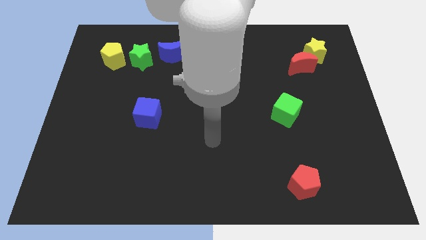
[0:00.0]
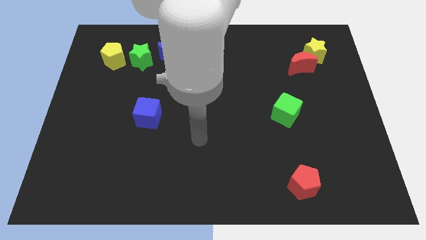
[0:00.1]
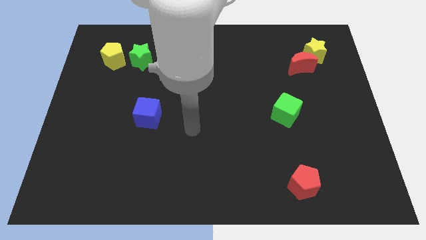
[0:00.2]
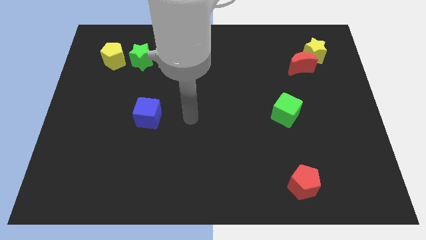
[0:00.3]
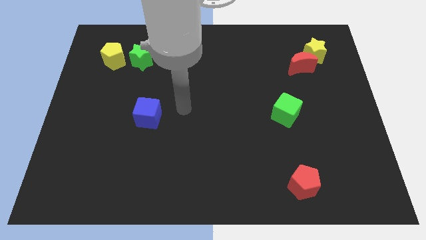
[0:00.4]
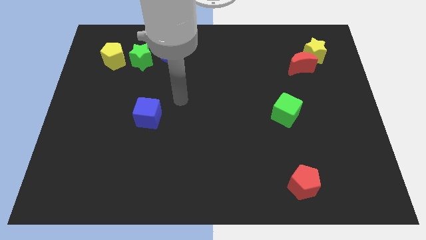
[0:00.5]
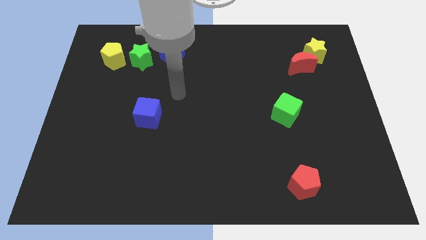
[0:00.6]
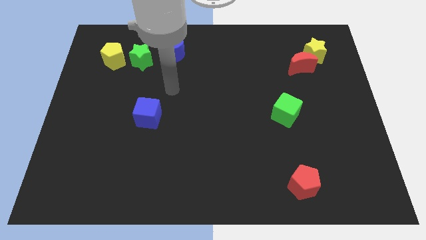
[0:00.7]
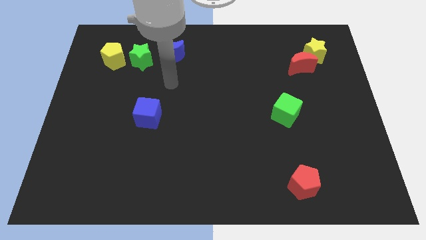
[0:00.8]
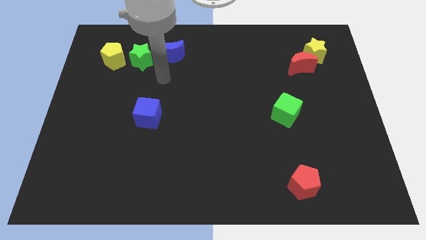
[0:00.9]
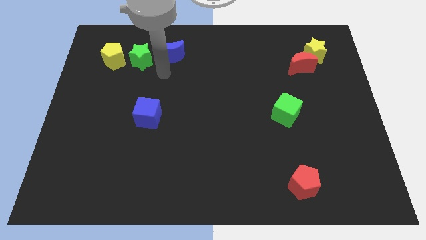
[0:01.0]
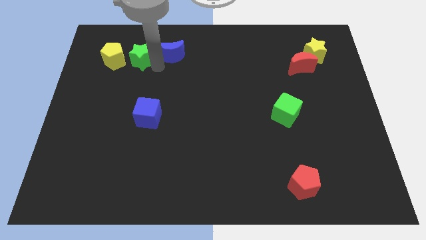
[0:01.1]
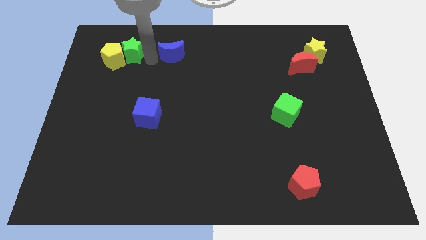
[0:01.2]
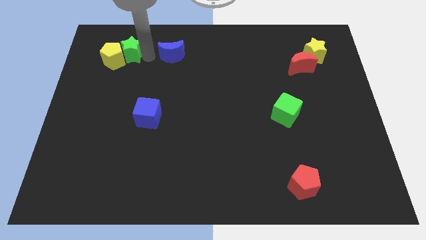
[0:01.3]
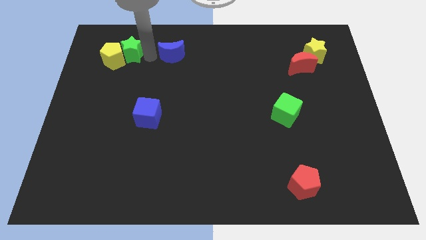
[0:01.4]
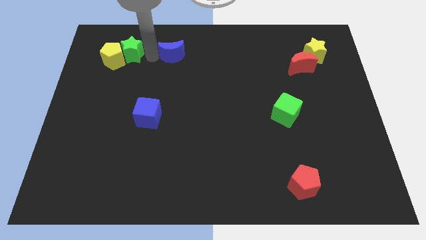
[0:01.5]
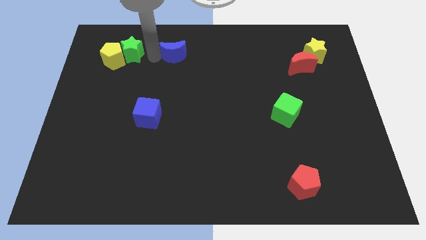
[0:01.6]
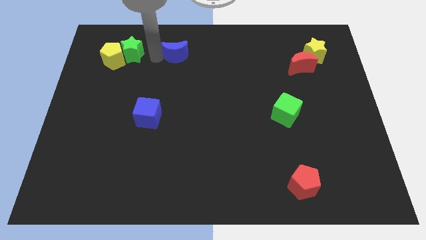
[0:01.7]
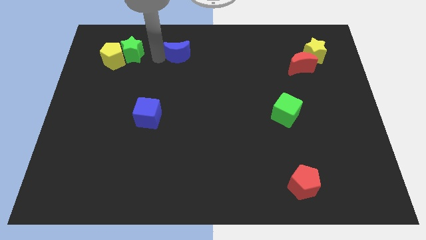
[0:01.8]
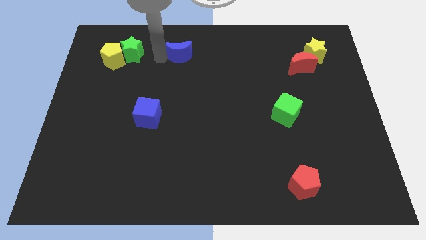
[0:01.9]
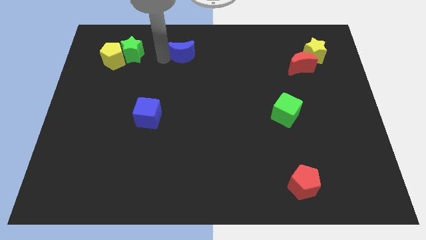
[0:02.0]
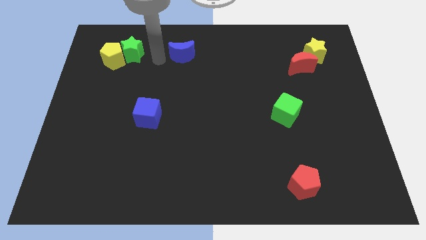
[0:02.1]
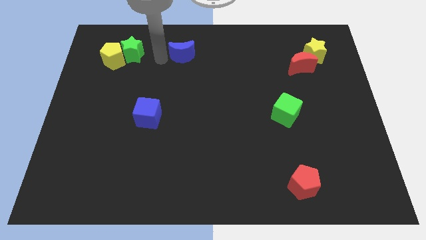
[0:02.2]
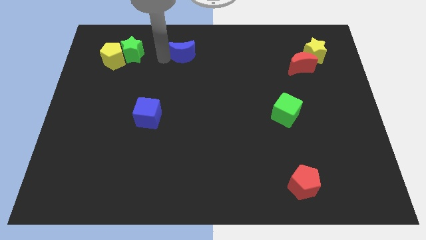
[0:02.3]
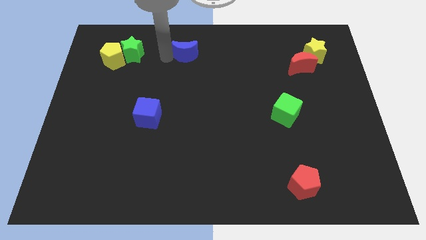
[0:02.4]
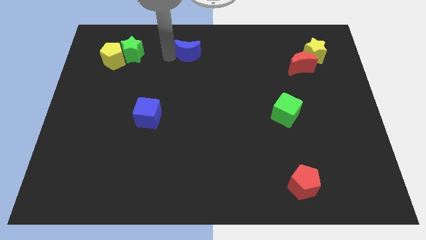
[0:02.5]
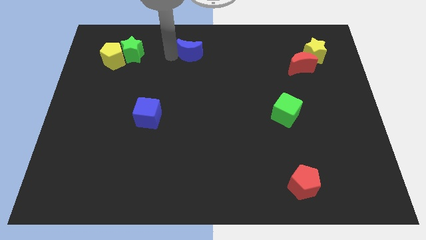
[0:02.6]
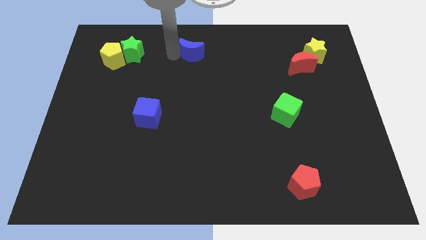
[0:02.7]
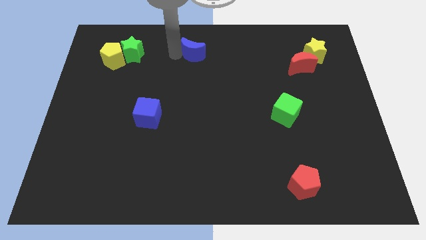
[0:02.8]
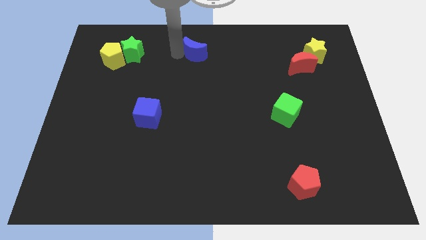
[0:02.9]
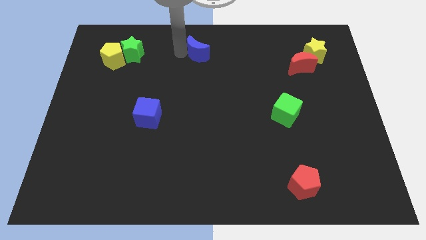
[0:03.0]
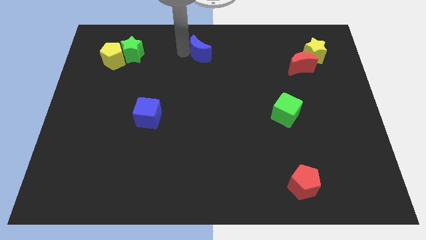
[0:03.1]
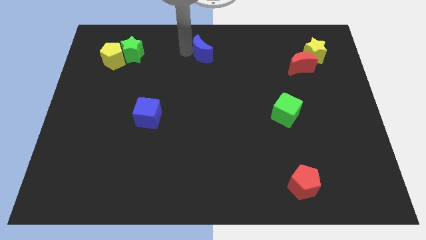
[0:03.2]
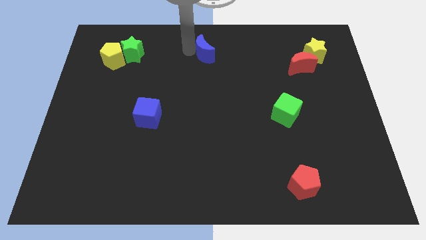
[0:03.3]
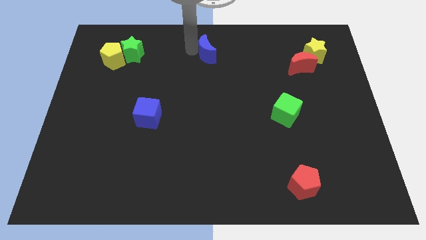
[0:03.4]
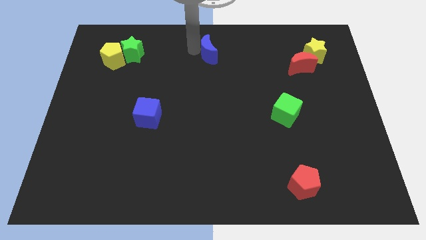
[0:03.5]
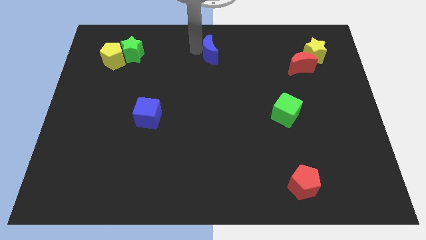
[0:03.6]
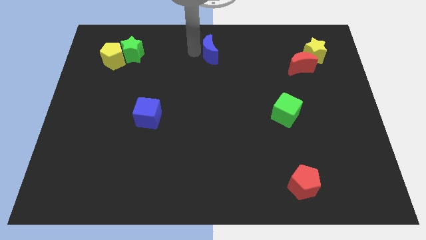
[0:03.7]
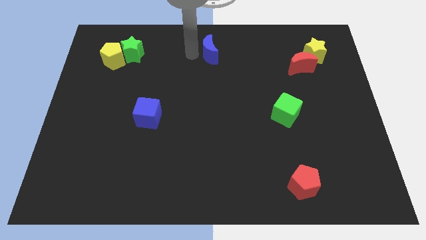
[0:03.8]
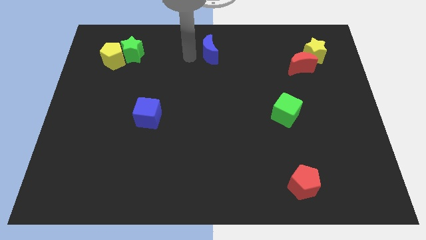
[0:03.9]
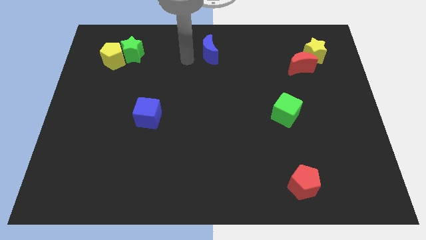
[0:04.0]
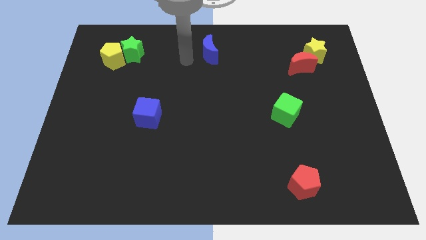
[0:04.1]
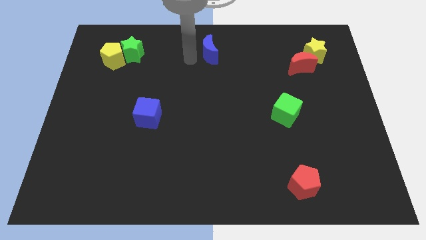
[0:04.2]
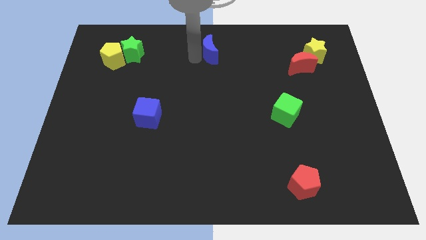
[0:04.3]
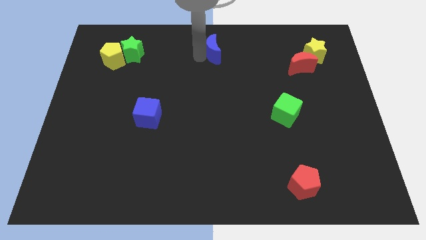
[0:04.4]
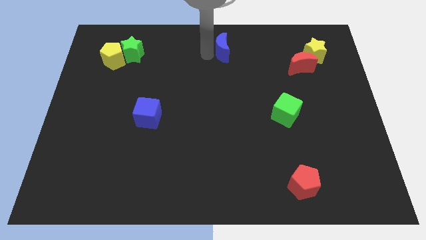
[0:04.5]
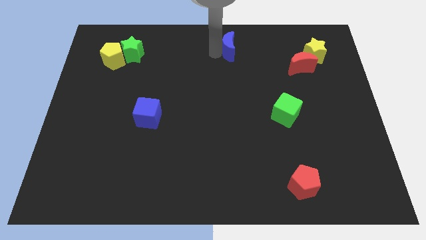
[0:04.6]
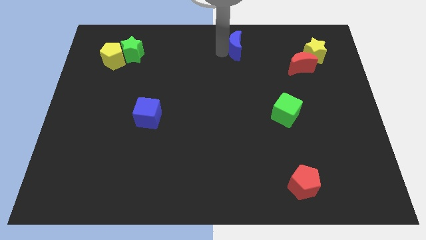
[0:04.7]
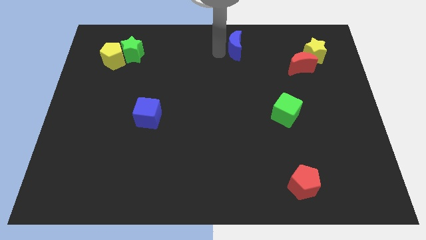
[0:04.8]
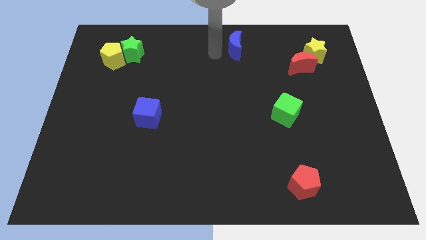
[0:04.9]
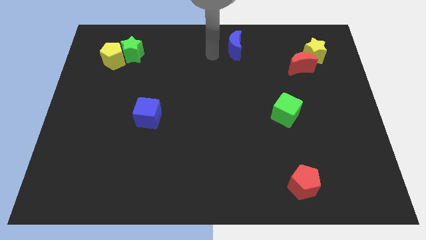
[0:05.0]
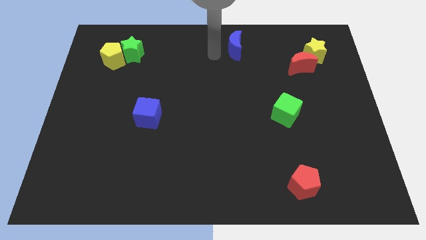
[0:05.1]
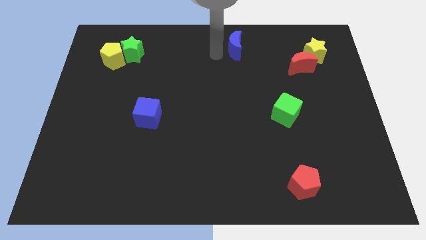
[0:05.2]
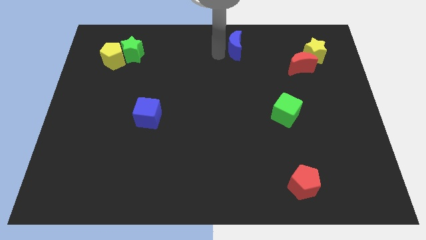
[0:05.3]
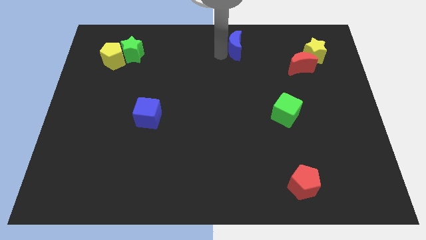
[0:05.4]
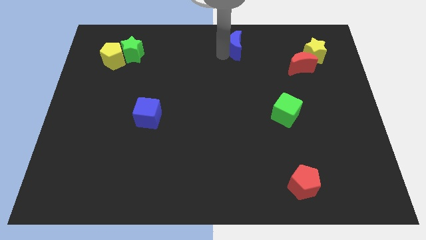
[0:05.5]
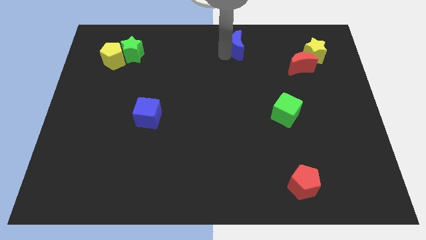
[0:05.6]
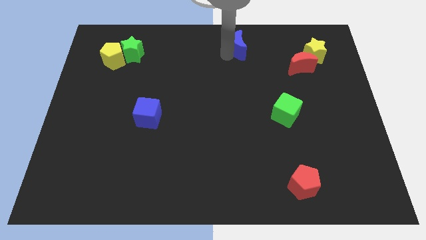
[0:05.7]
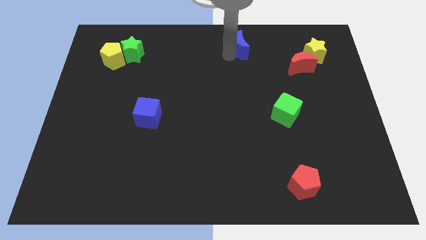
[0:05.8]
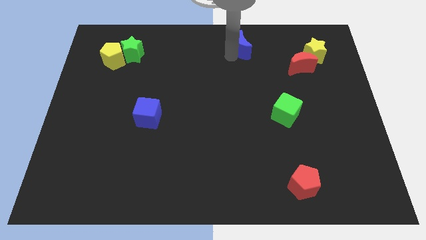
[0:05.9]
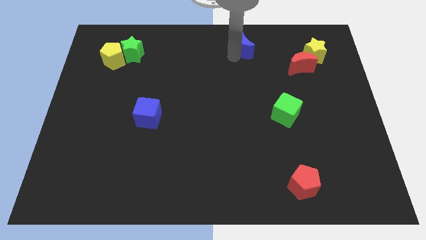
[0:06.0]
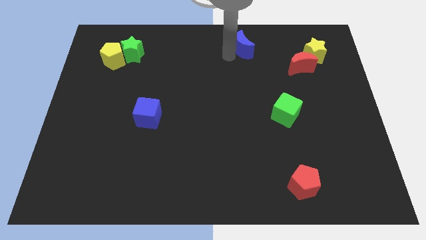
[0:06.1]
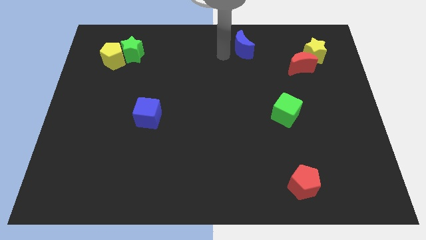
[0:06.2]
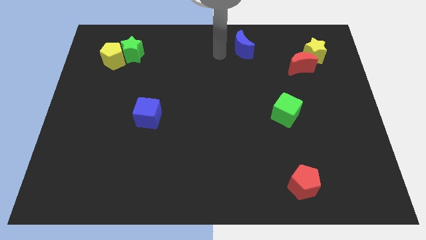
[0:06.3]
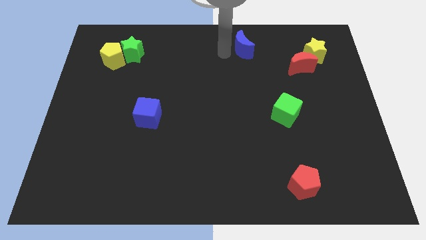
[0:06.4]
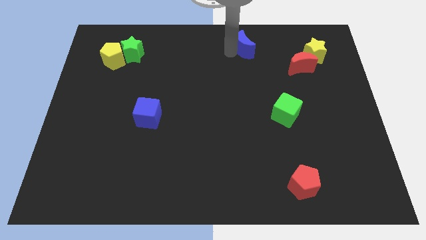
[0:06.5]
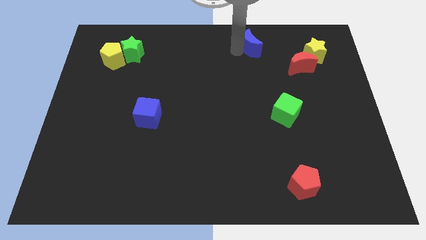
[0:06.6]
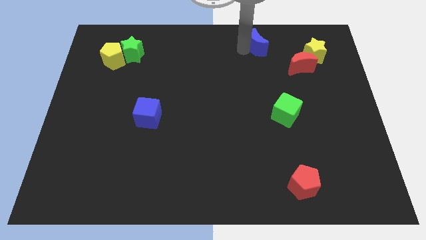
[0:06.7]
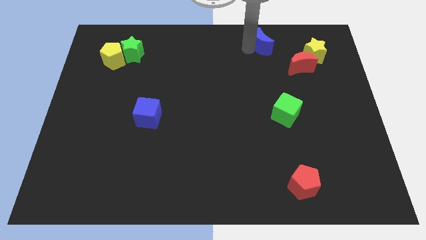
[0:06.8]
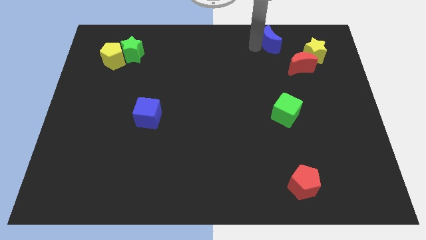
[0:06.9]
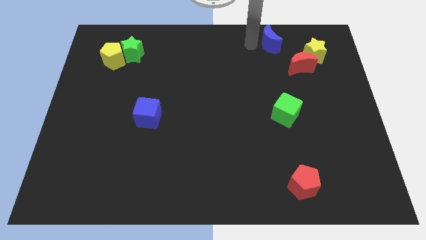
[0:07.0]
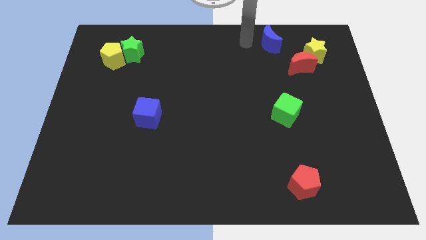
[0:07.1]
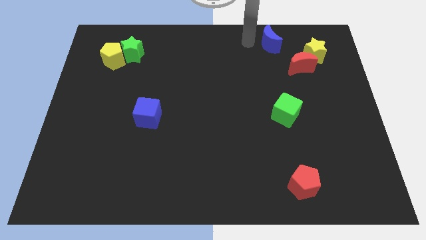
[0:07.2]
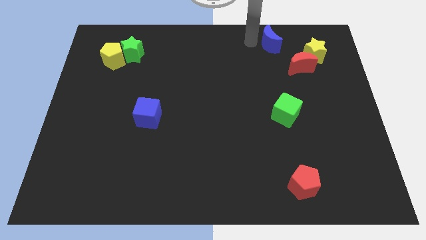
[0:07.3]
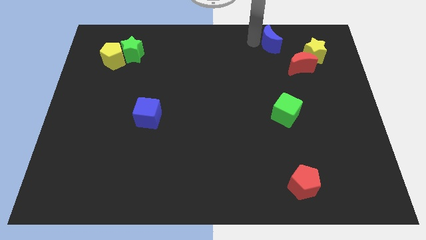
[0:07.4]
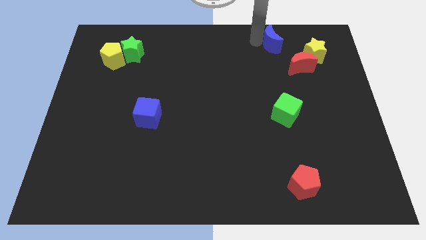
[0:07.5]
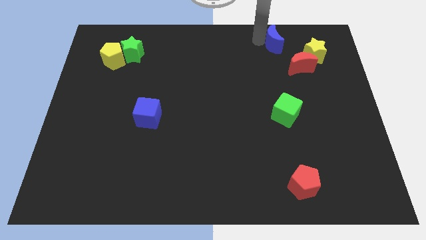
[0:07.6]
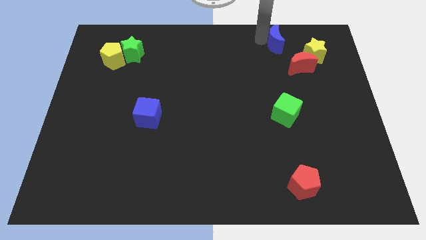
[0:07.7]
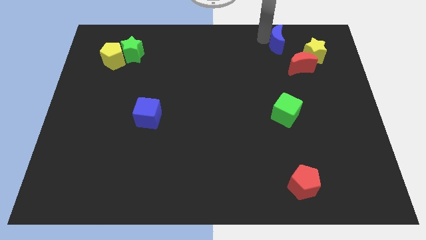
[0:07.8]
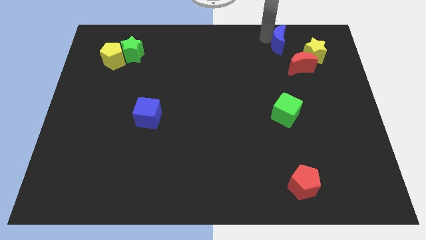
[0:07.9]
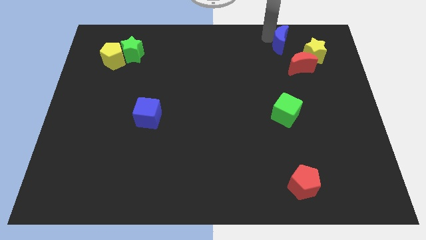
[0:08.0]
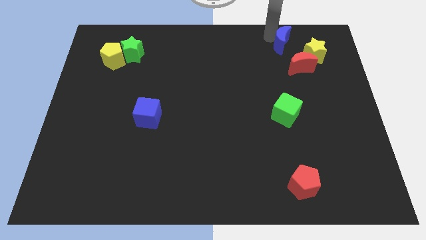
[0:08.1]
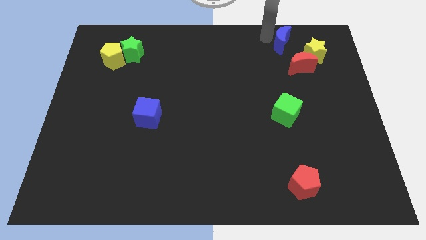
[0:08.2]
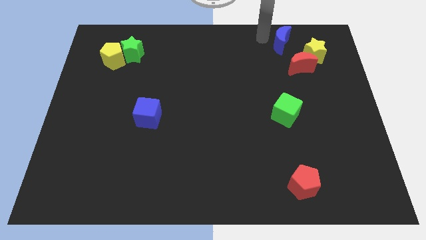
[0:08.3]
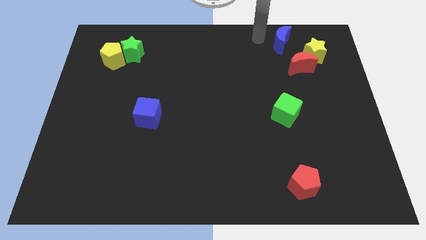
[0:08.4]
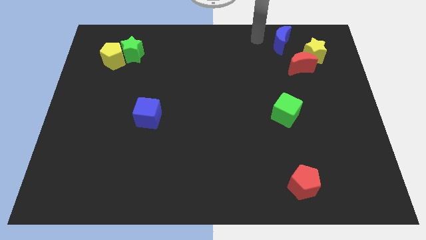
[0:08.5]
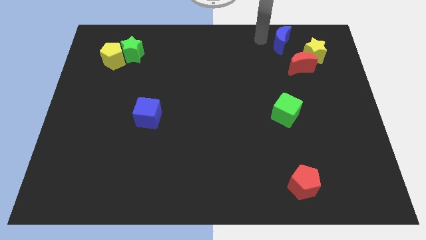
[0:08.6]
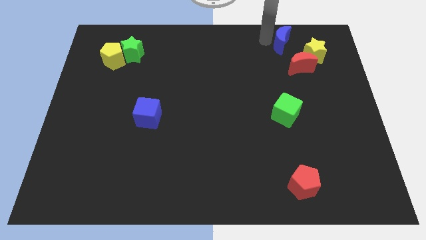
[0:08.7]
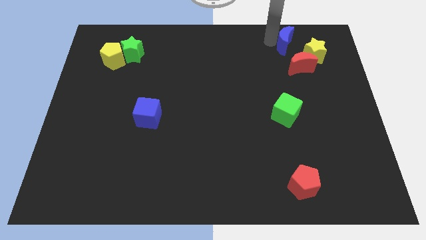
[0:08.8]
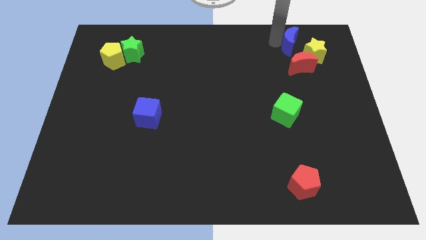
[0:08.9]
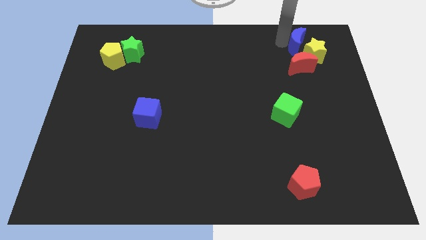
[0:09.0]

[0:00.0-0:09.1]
slide the blue moon towards the yellow star
